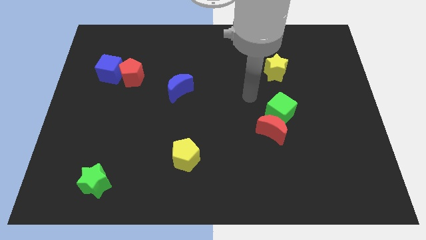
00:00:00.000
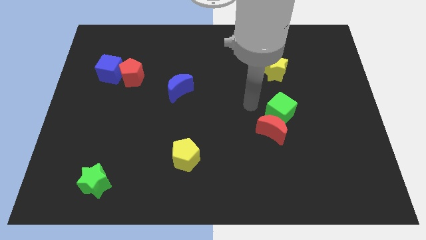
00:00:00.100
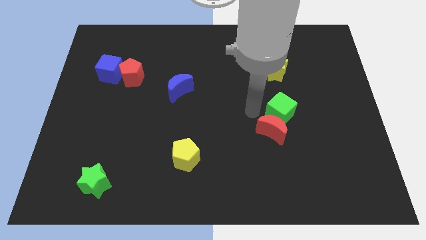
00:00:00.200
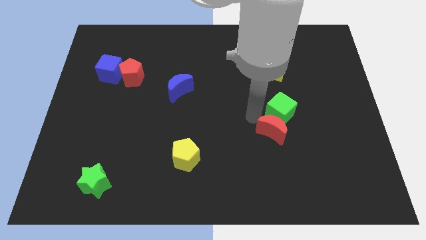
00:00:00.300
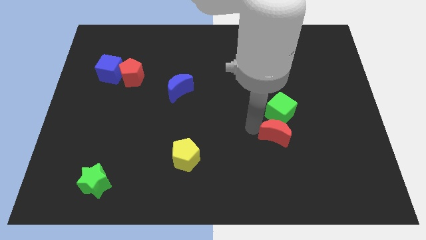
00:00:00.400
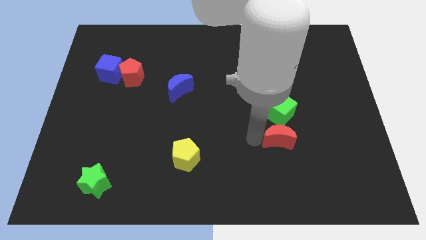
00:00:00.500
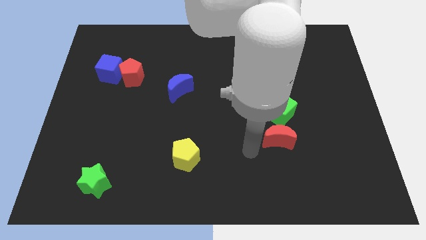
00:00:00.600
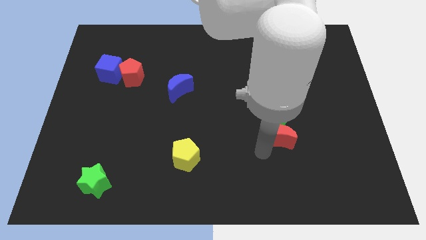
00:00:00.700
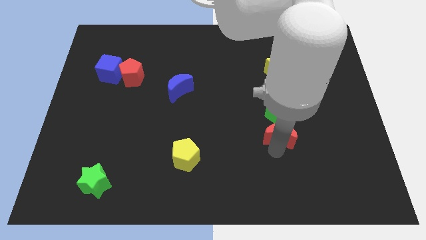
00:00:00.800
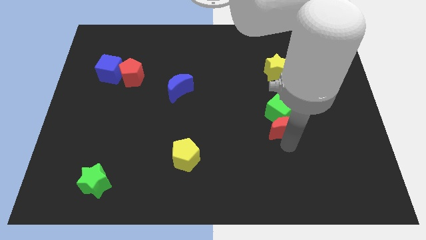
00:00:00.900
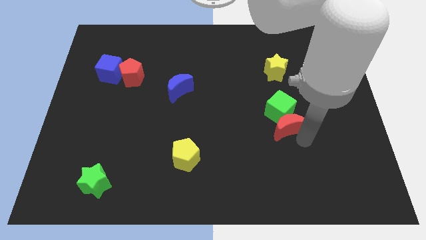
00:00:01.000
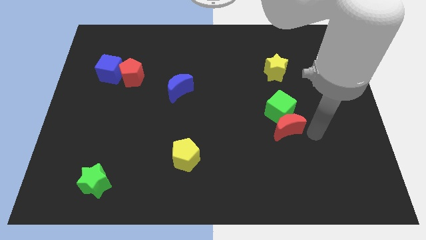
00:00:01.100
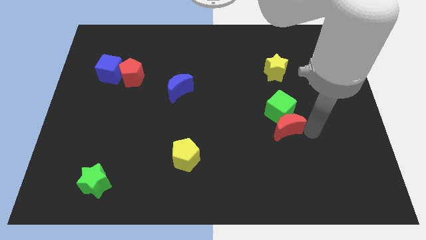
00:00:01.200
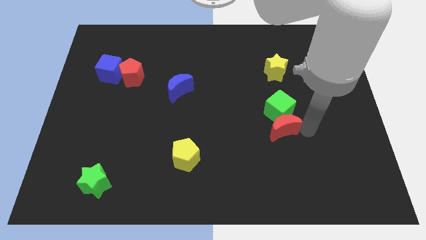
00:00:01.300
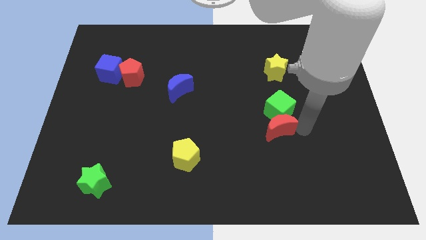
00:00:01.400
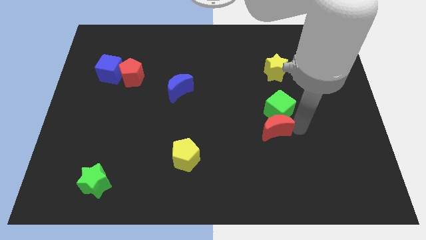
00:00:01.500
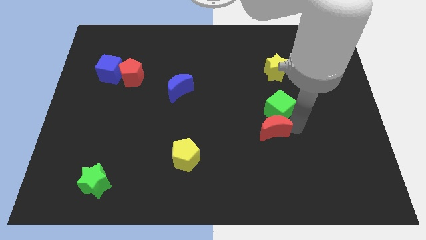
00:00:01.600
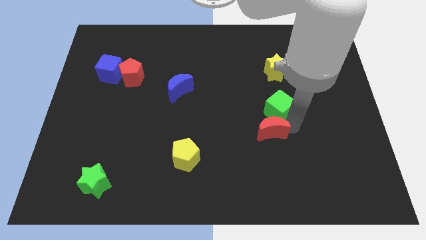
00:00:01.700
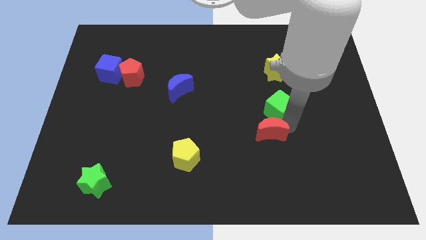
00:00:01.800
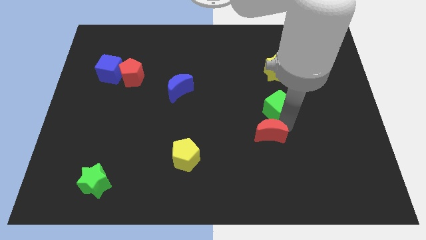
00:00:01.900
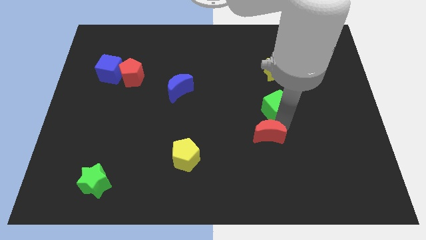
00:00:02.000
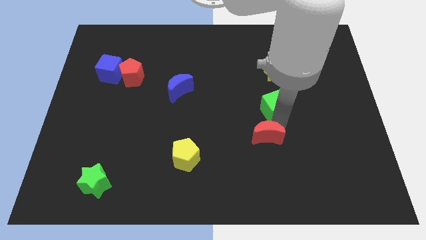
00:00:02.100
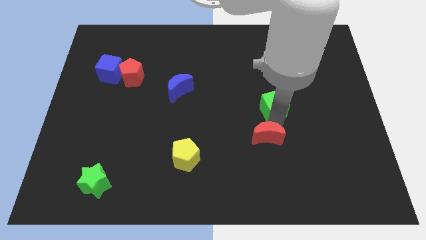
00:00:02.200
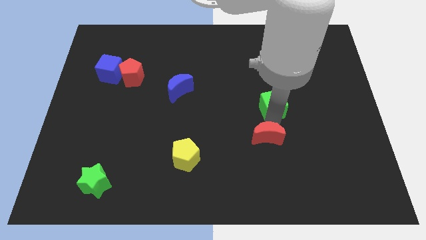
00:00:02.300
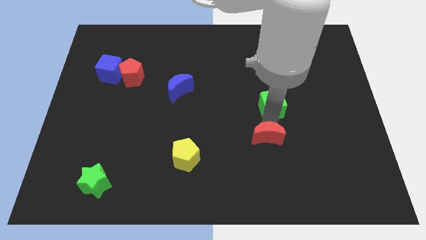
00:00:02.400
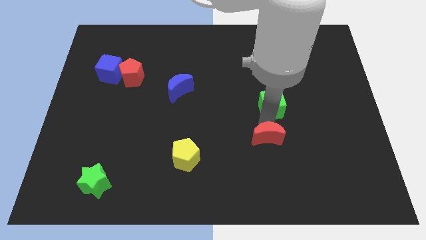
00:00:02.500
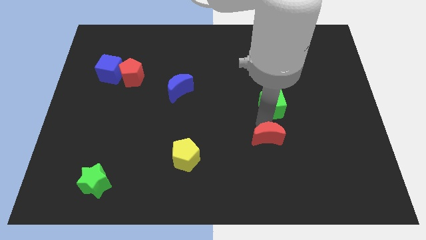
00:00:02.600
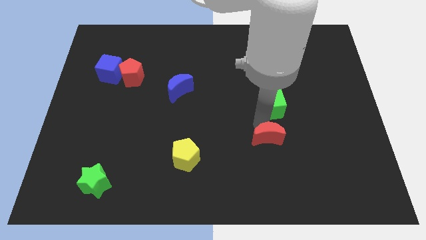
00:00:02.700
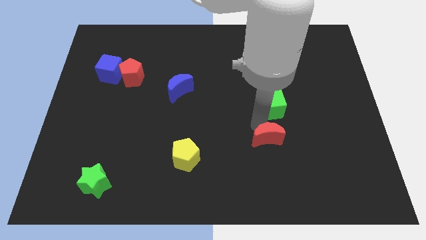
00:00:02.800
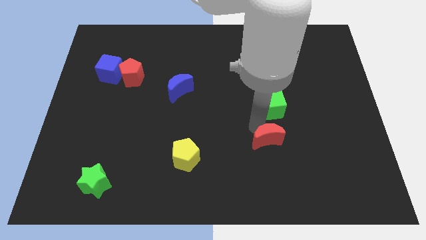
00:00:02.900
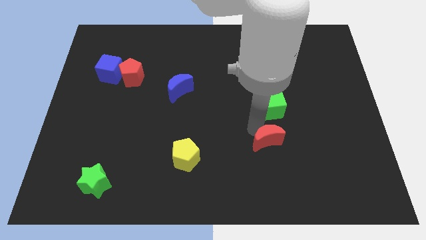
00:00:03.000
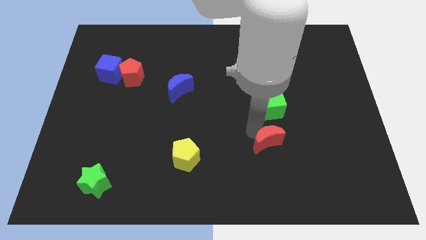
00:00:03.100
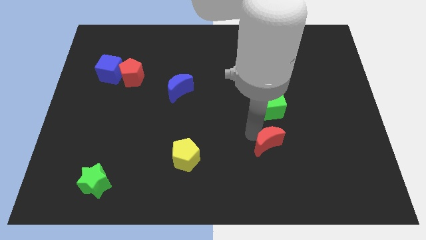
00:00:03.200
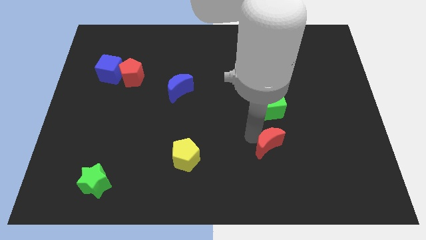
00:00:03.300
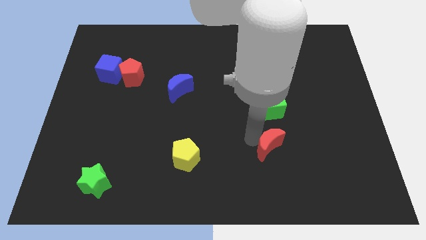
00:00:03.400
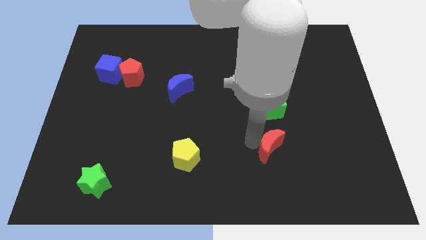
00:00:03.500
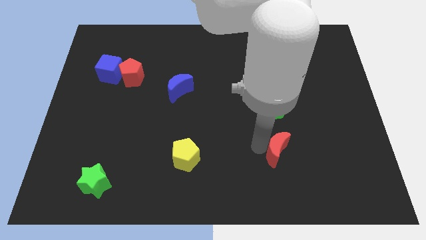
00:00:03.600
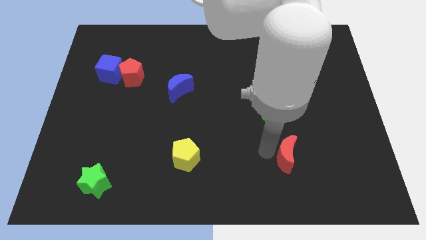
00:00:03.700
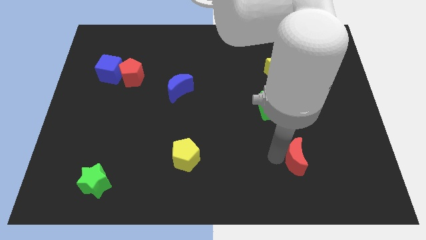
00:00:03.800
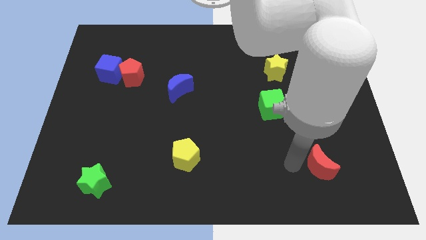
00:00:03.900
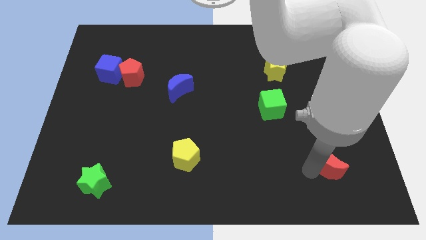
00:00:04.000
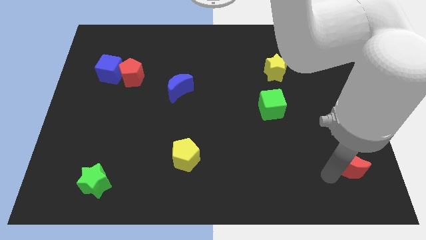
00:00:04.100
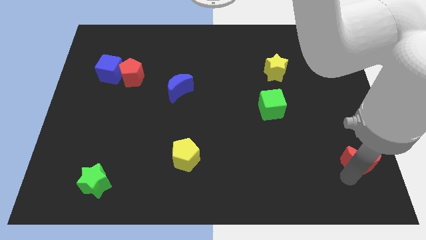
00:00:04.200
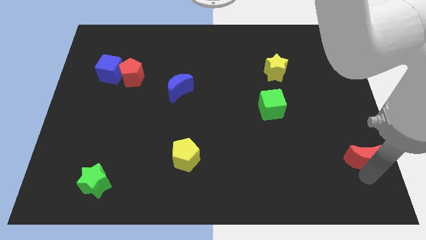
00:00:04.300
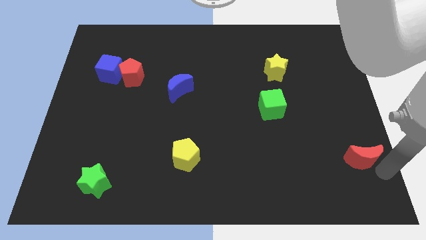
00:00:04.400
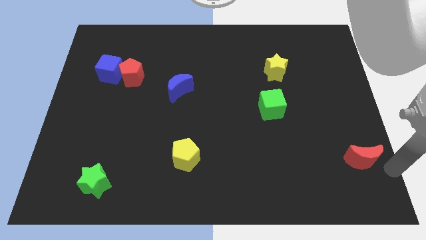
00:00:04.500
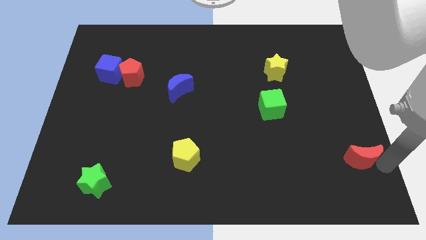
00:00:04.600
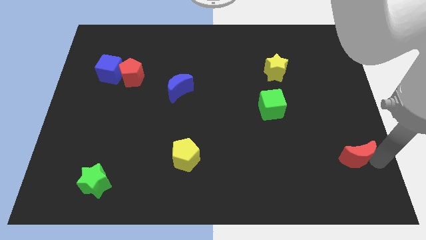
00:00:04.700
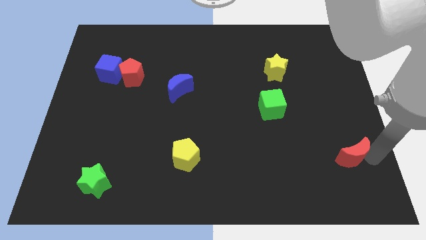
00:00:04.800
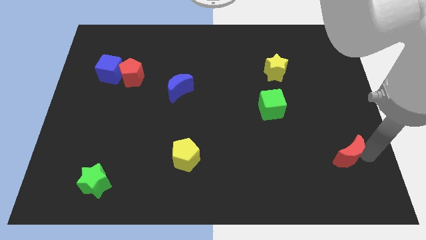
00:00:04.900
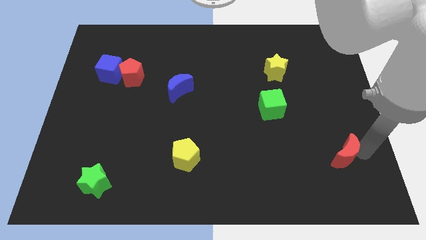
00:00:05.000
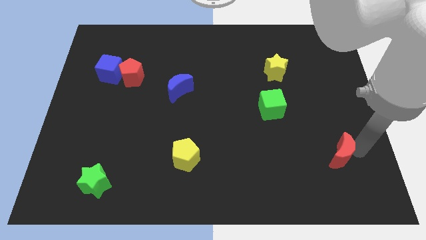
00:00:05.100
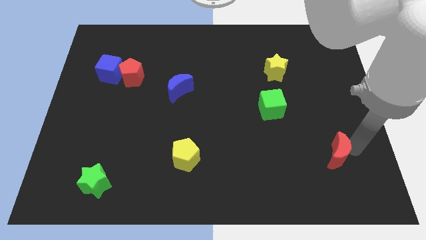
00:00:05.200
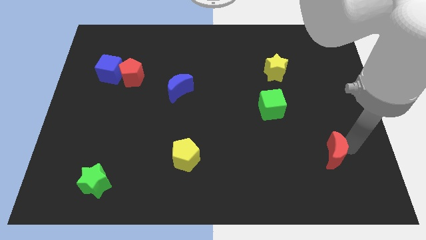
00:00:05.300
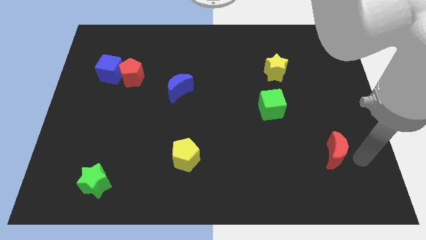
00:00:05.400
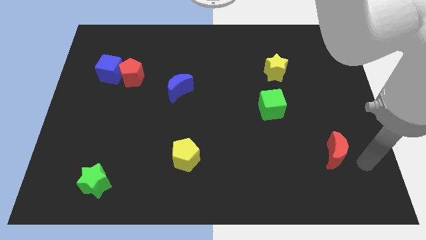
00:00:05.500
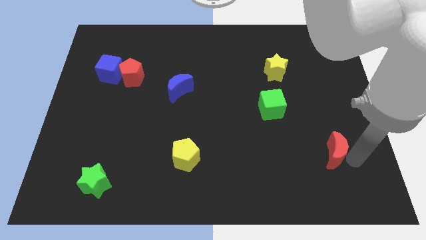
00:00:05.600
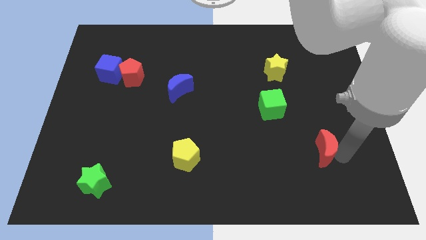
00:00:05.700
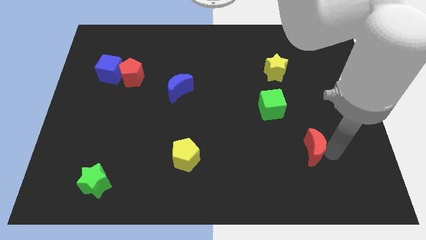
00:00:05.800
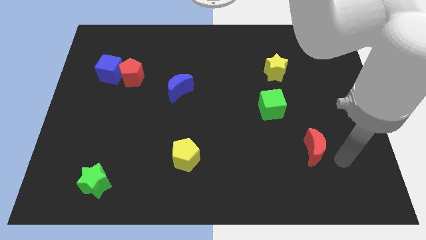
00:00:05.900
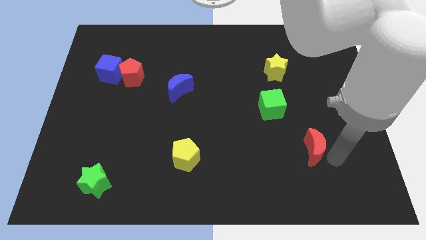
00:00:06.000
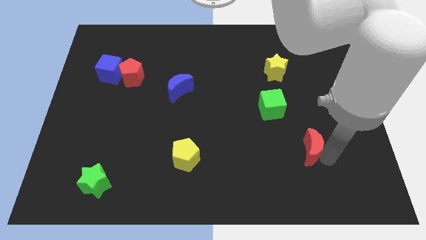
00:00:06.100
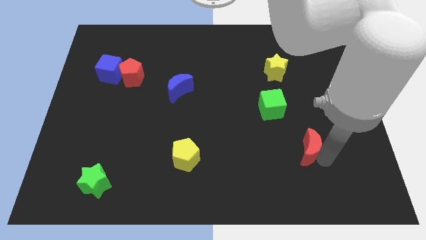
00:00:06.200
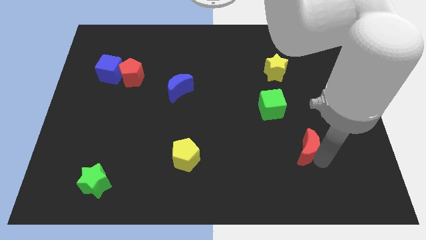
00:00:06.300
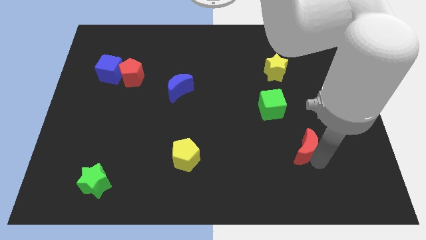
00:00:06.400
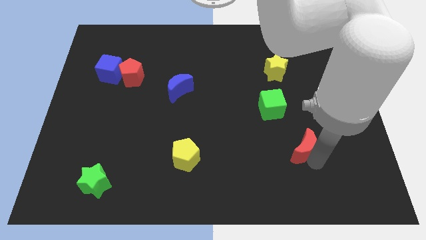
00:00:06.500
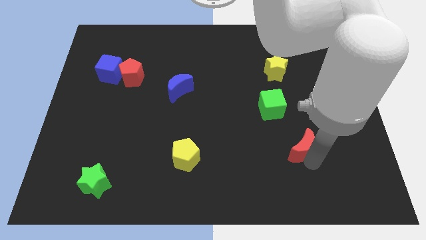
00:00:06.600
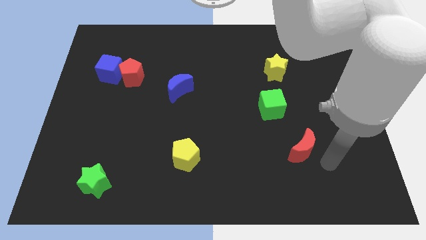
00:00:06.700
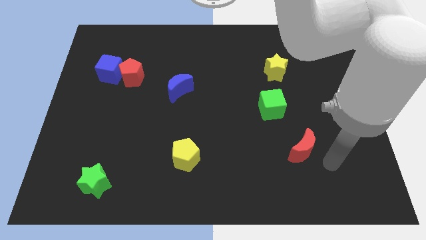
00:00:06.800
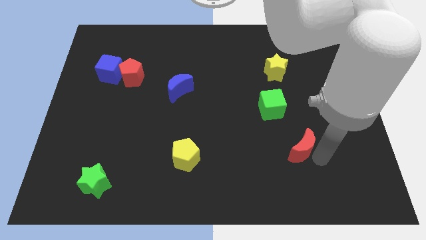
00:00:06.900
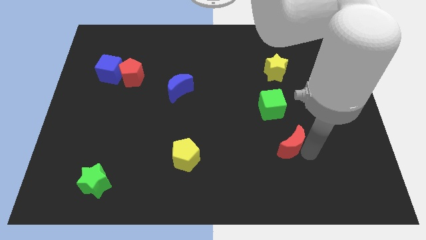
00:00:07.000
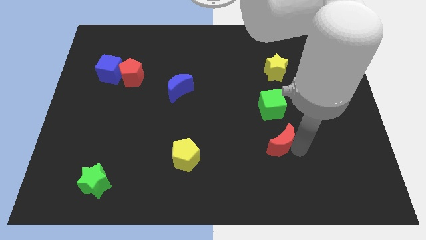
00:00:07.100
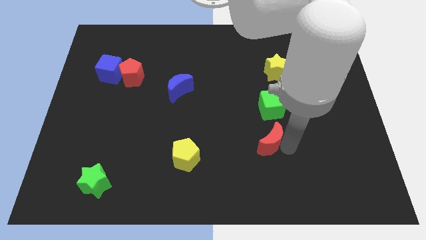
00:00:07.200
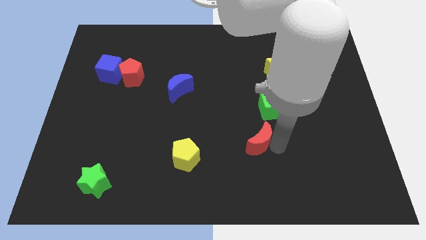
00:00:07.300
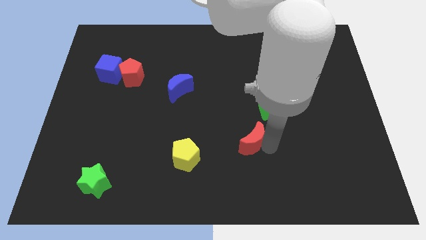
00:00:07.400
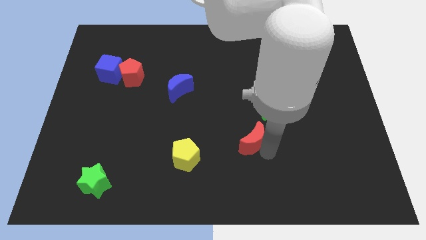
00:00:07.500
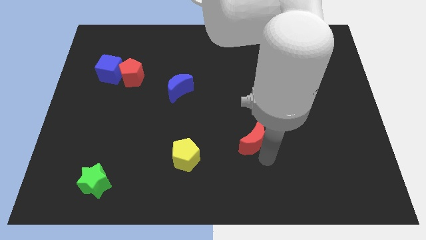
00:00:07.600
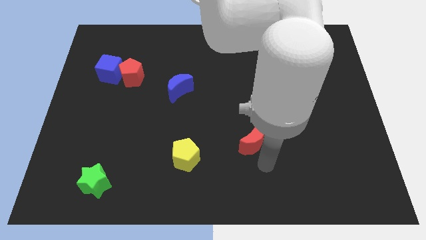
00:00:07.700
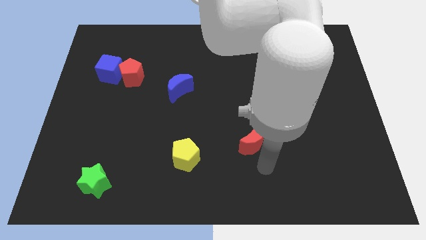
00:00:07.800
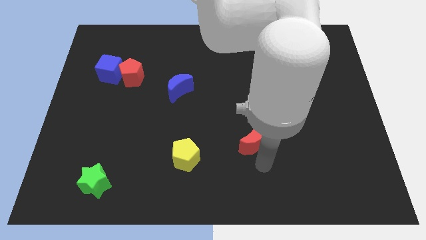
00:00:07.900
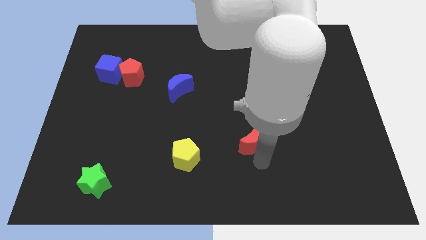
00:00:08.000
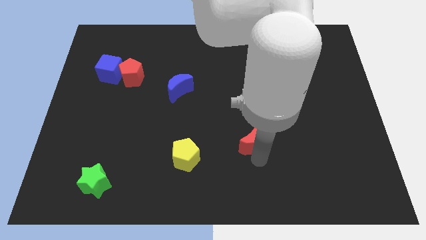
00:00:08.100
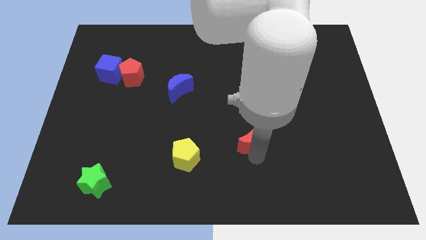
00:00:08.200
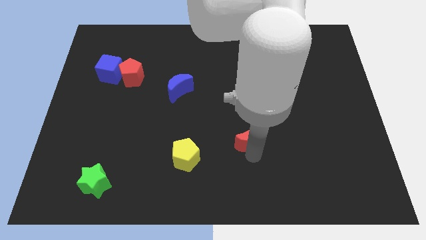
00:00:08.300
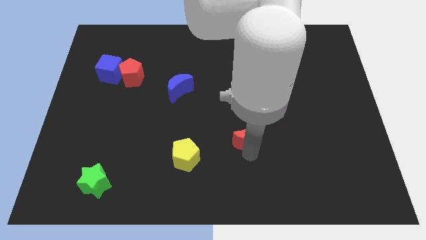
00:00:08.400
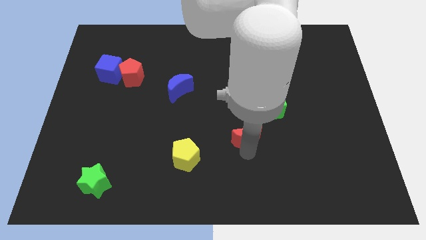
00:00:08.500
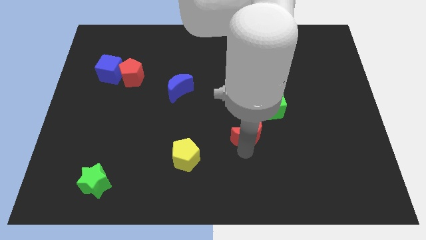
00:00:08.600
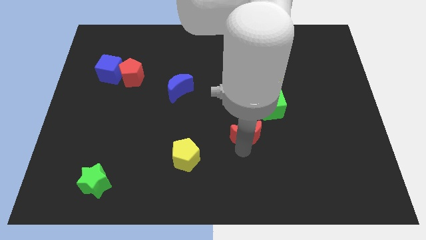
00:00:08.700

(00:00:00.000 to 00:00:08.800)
slide the red moon to the middle
